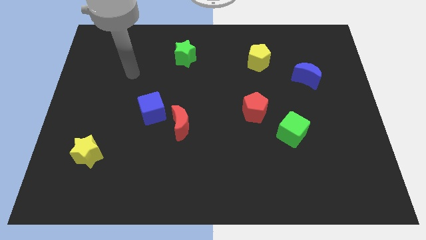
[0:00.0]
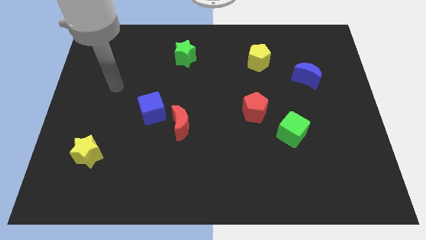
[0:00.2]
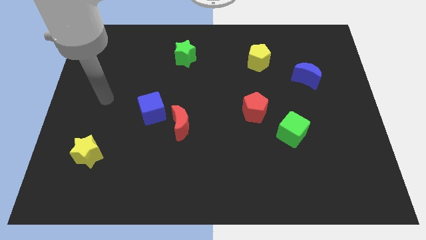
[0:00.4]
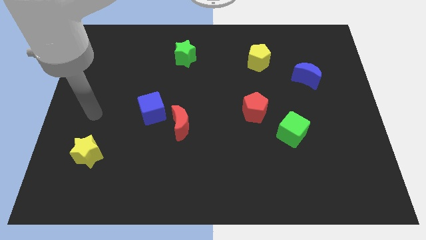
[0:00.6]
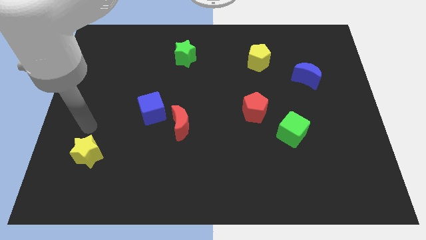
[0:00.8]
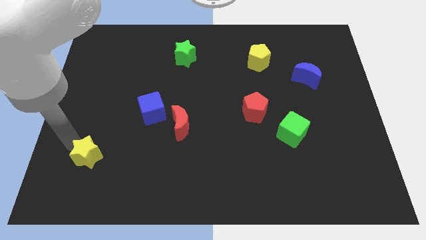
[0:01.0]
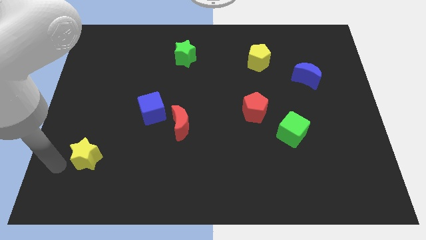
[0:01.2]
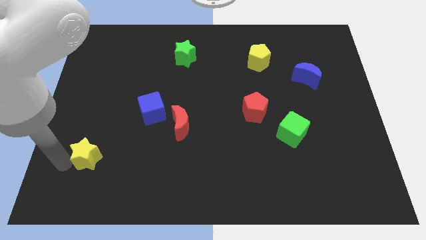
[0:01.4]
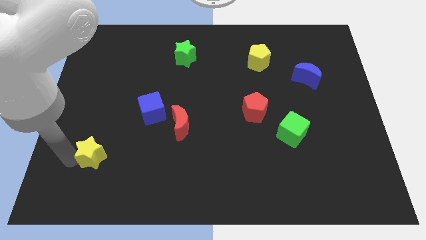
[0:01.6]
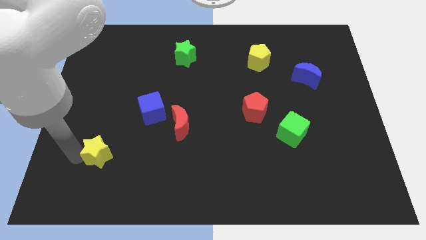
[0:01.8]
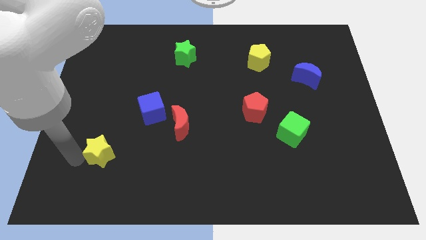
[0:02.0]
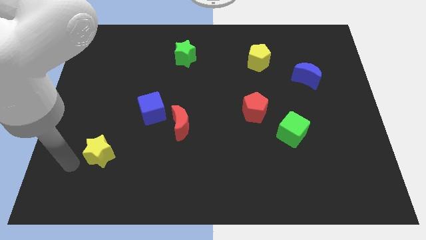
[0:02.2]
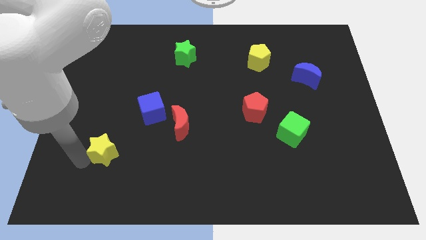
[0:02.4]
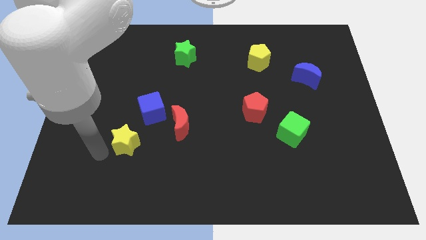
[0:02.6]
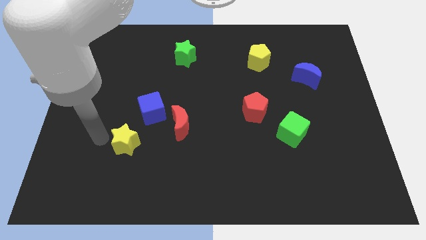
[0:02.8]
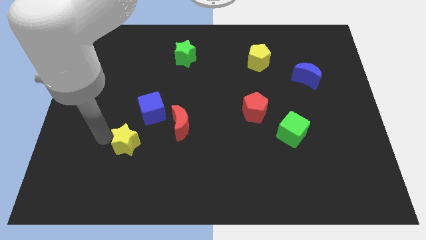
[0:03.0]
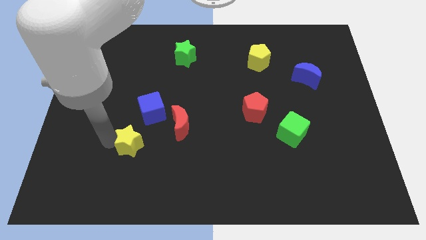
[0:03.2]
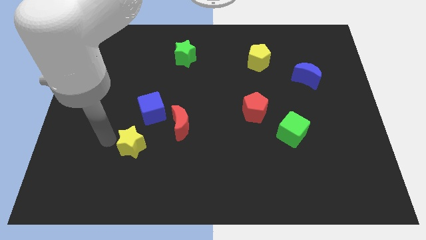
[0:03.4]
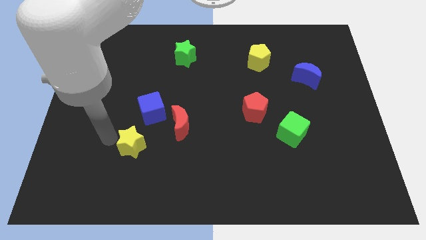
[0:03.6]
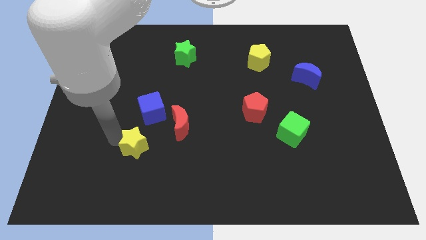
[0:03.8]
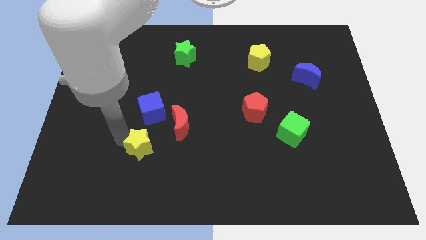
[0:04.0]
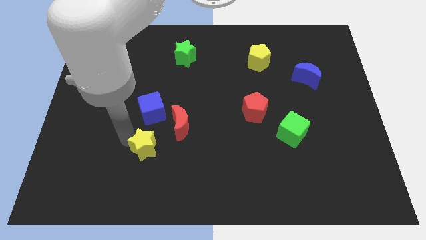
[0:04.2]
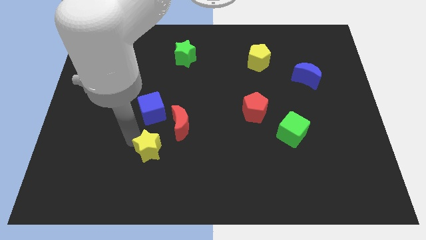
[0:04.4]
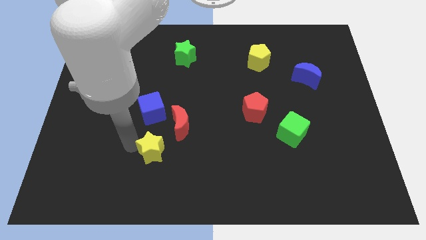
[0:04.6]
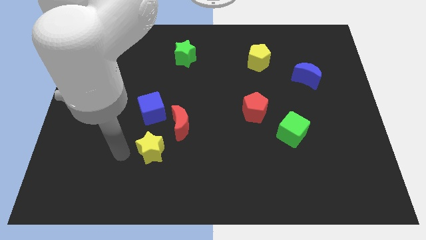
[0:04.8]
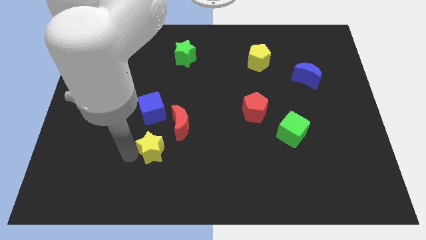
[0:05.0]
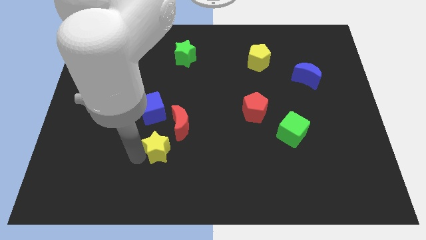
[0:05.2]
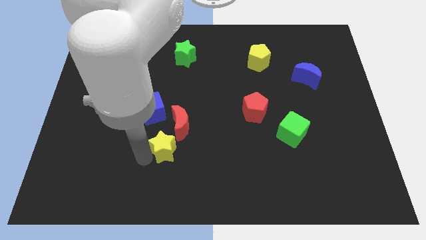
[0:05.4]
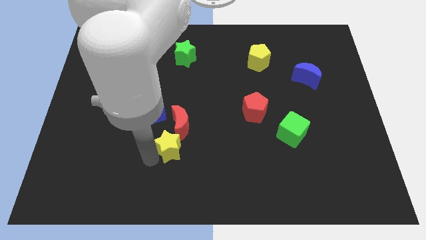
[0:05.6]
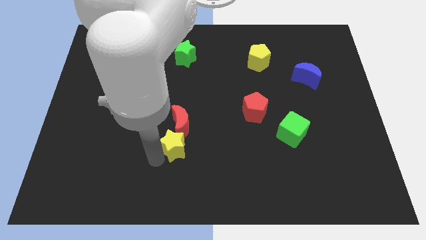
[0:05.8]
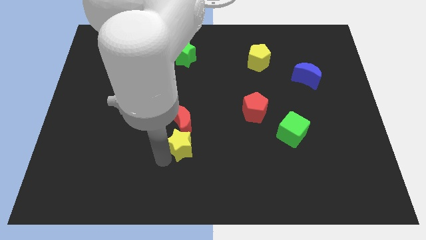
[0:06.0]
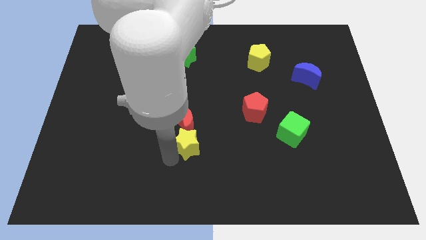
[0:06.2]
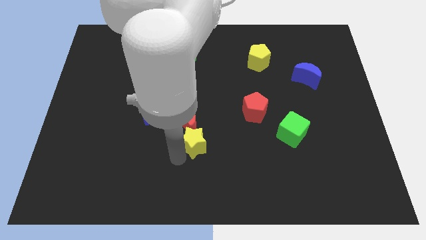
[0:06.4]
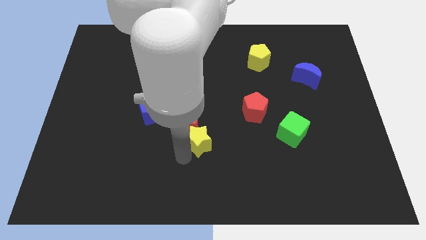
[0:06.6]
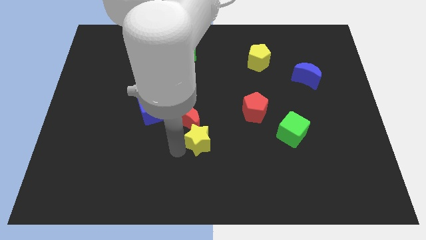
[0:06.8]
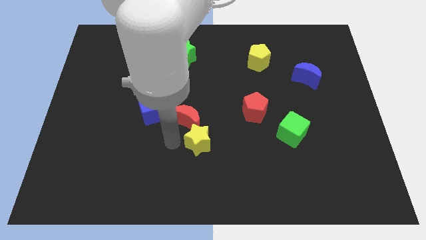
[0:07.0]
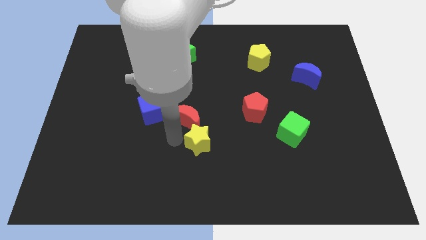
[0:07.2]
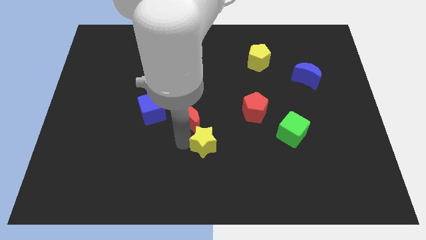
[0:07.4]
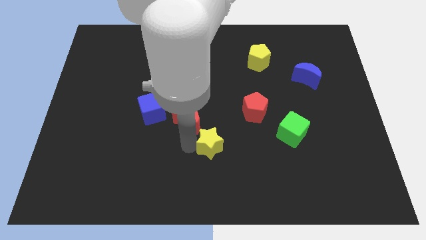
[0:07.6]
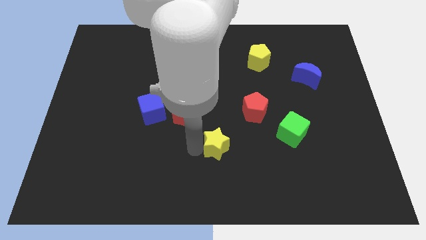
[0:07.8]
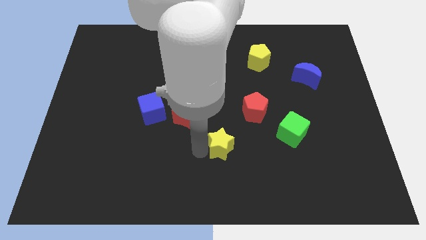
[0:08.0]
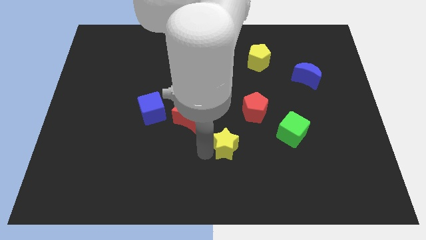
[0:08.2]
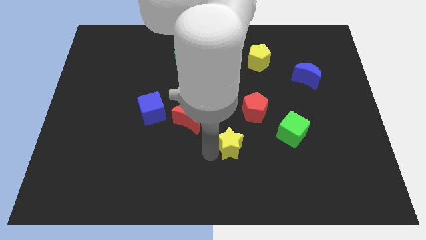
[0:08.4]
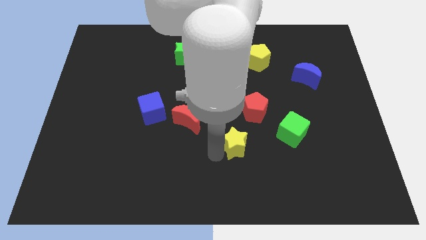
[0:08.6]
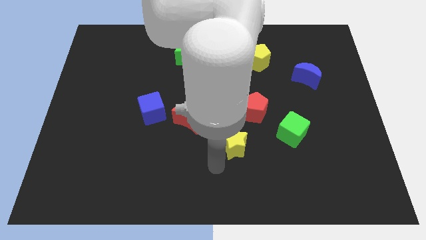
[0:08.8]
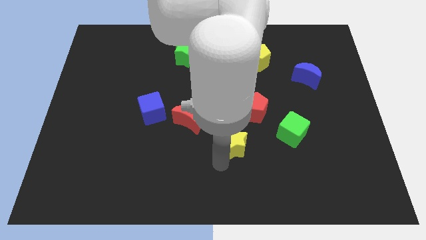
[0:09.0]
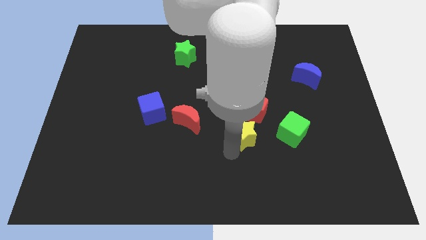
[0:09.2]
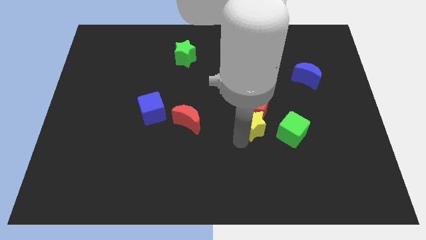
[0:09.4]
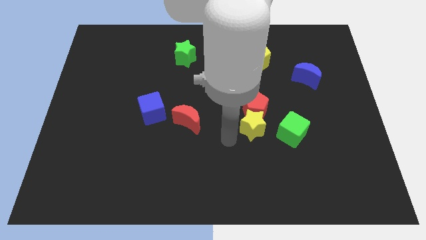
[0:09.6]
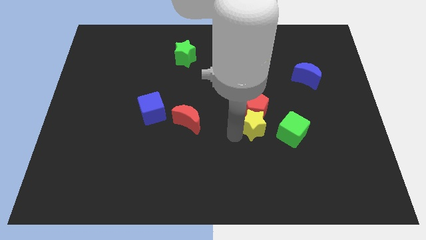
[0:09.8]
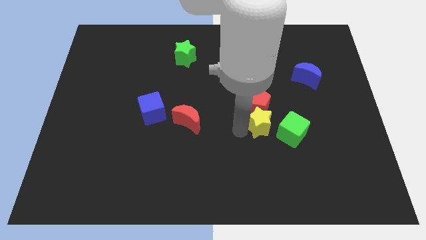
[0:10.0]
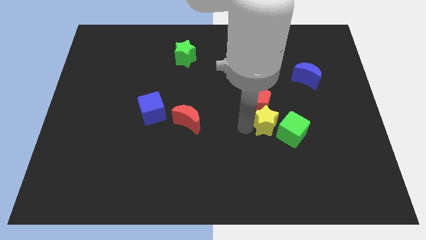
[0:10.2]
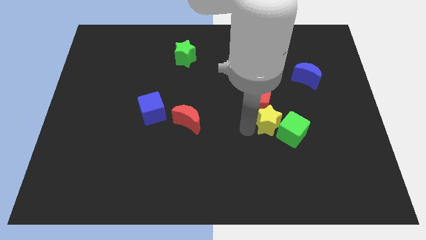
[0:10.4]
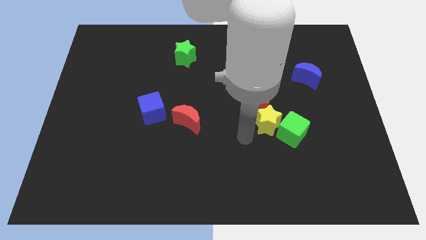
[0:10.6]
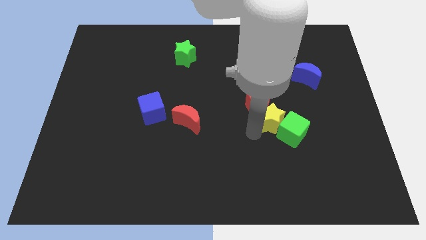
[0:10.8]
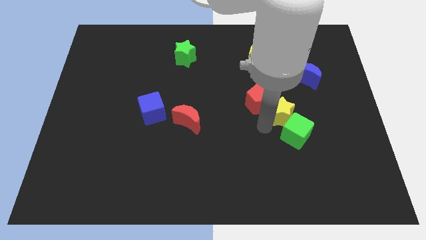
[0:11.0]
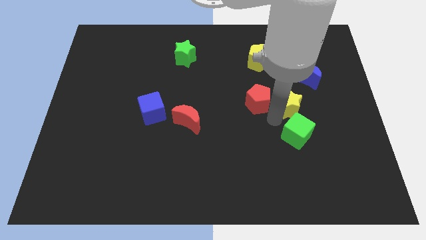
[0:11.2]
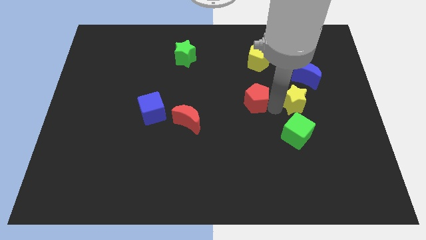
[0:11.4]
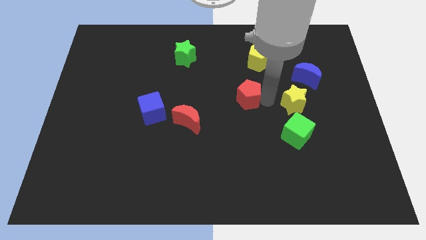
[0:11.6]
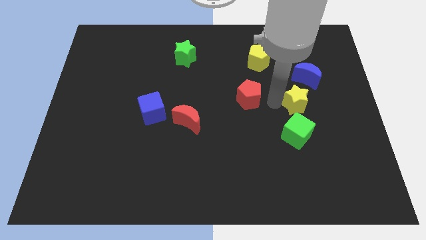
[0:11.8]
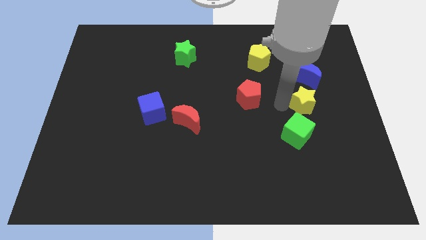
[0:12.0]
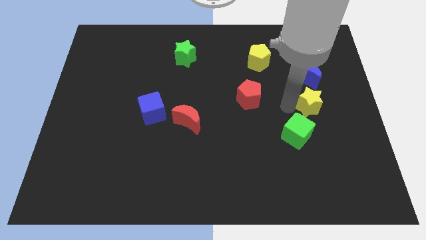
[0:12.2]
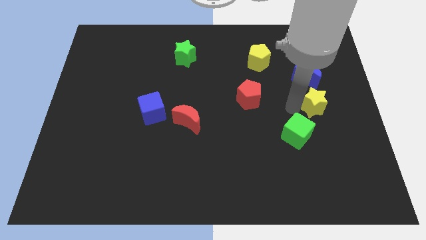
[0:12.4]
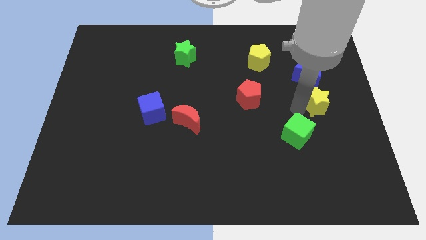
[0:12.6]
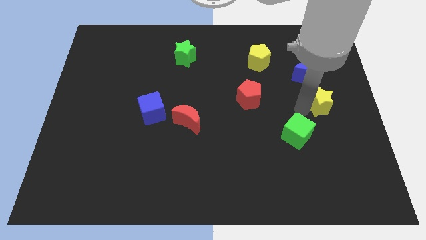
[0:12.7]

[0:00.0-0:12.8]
put the yellow star to the right side
